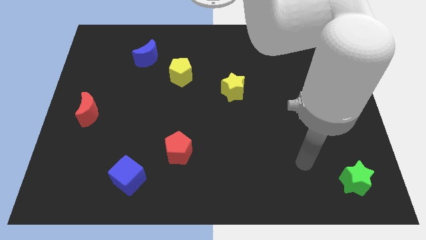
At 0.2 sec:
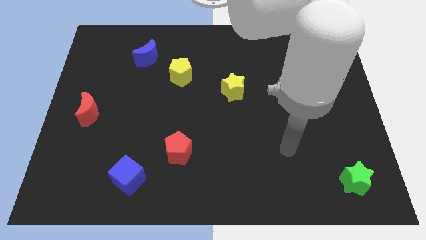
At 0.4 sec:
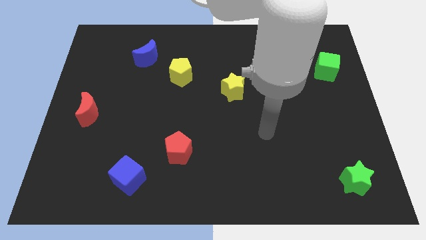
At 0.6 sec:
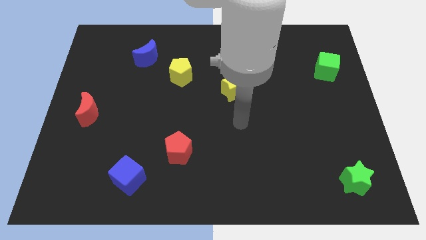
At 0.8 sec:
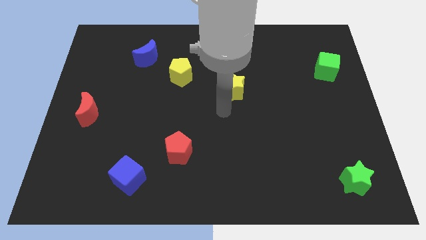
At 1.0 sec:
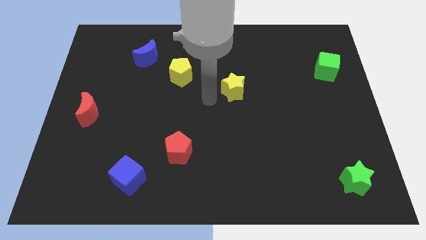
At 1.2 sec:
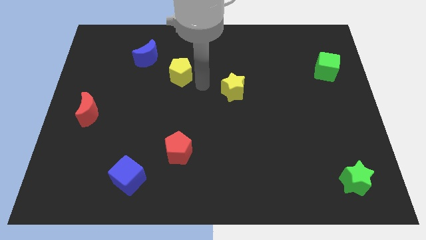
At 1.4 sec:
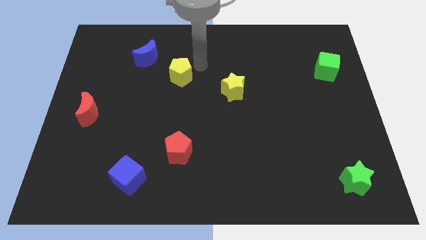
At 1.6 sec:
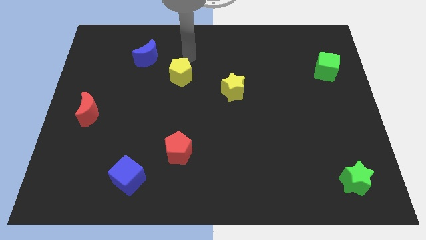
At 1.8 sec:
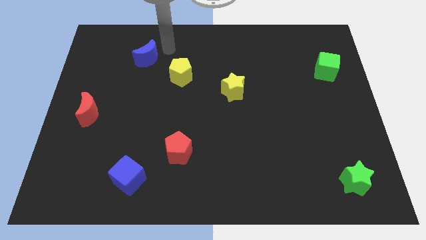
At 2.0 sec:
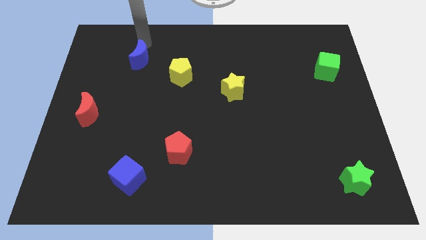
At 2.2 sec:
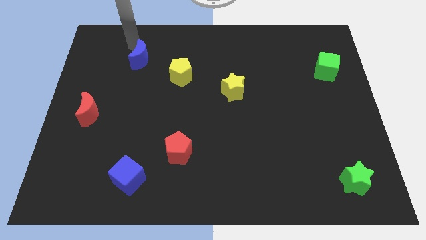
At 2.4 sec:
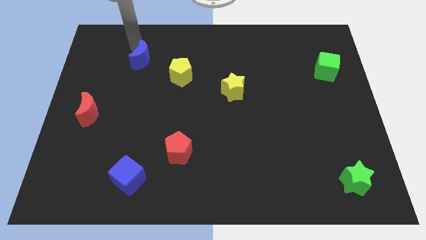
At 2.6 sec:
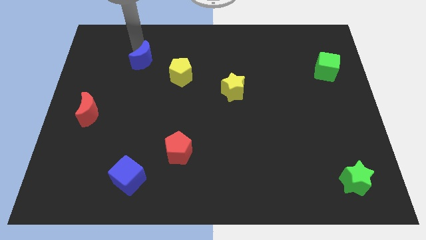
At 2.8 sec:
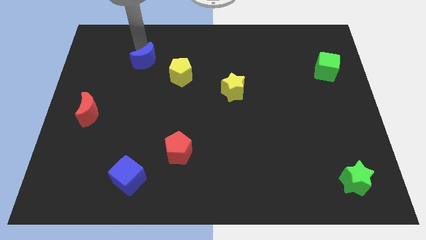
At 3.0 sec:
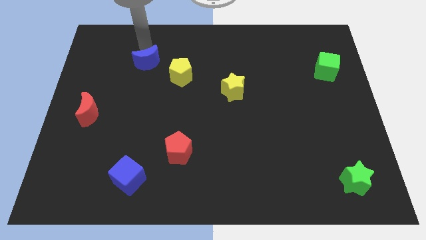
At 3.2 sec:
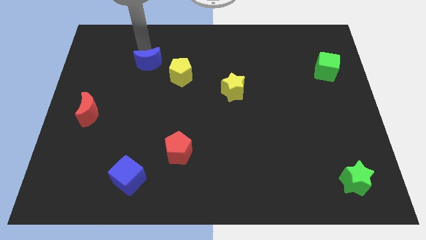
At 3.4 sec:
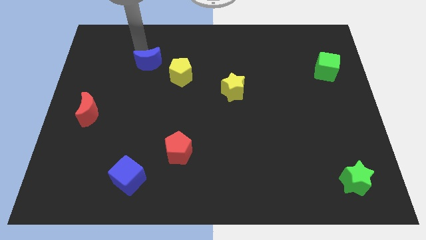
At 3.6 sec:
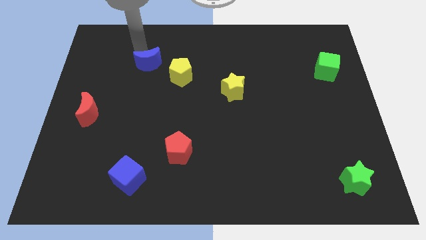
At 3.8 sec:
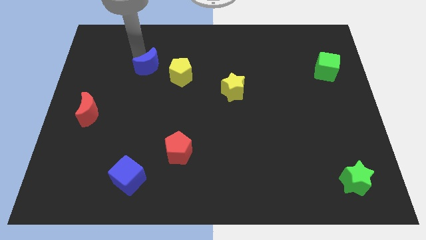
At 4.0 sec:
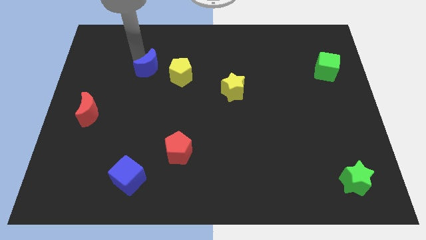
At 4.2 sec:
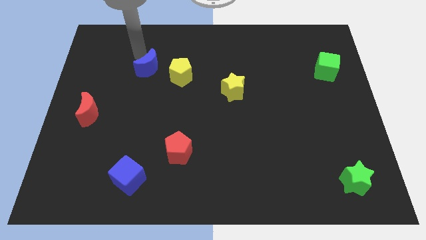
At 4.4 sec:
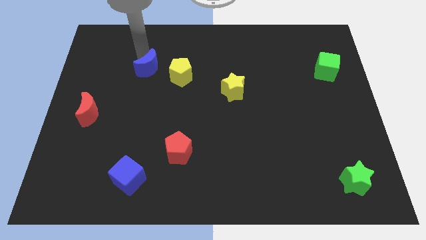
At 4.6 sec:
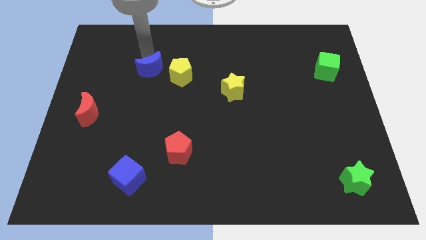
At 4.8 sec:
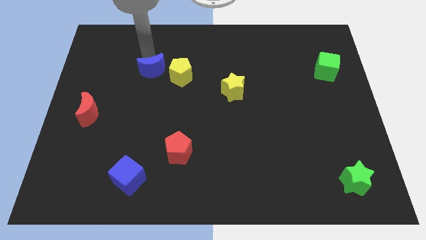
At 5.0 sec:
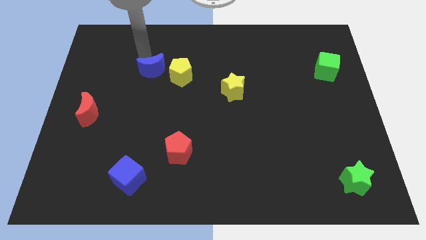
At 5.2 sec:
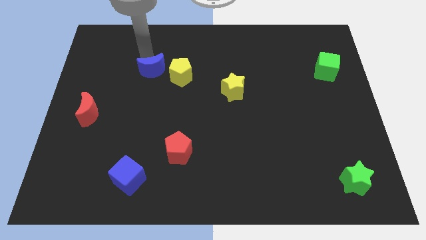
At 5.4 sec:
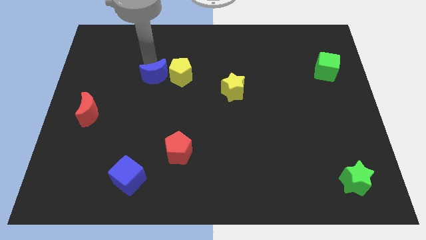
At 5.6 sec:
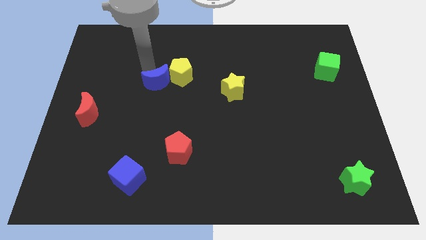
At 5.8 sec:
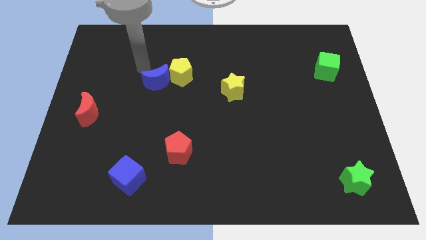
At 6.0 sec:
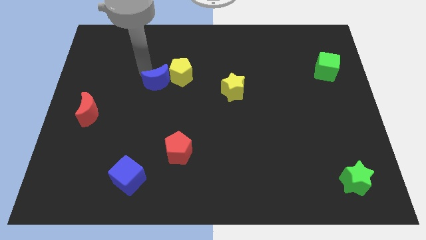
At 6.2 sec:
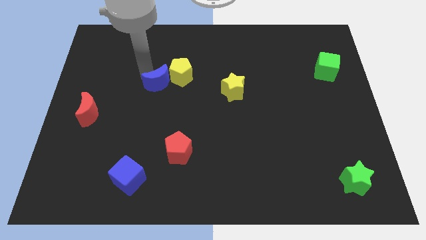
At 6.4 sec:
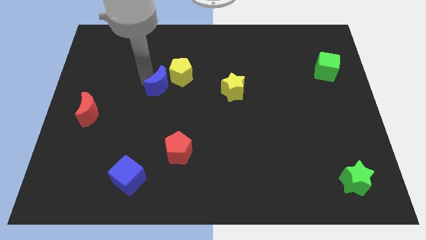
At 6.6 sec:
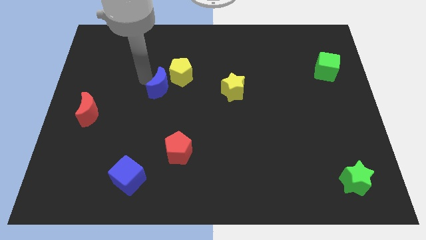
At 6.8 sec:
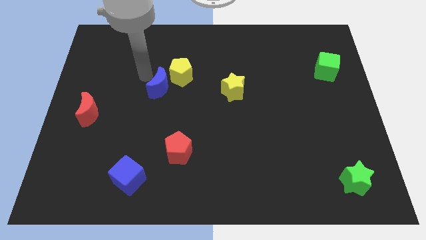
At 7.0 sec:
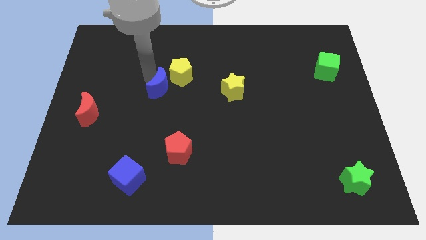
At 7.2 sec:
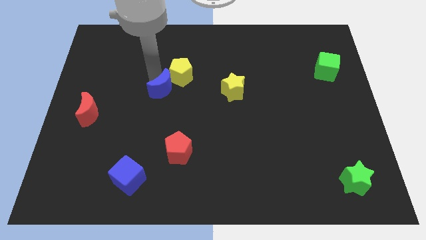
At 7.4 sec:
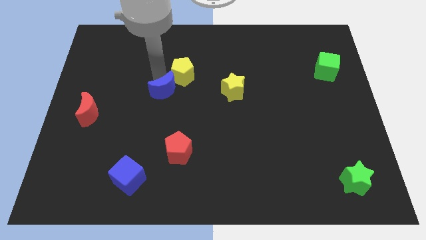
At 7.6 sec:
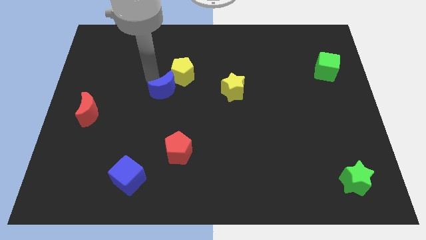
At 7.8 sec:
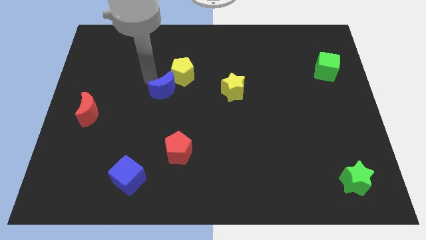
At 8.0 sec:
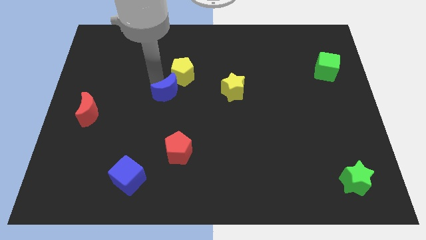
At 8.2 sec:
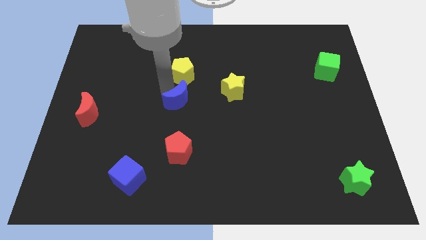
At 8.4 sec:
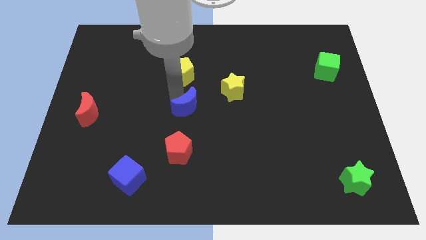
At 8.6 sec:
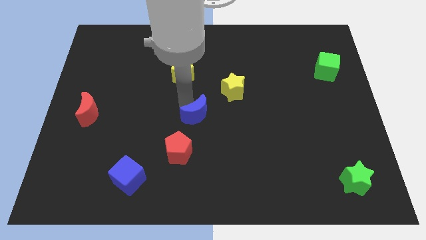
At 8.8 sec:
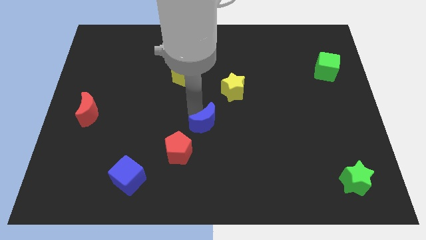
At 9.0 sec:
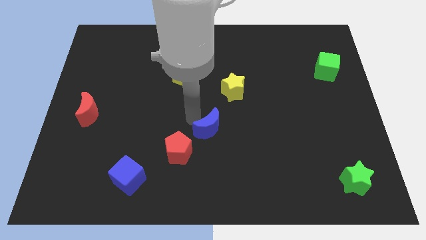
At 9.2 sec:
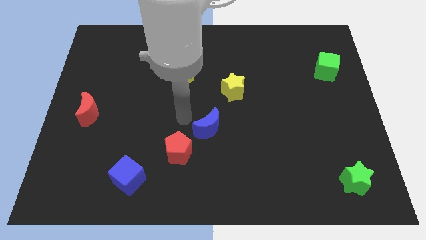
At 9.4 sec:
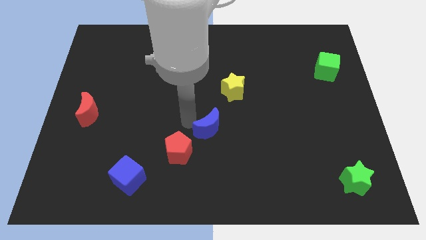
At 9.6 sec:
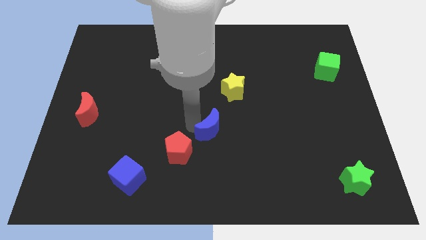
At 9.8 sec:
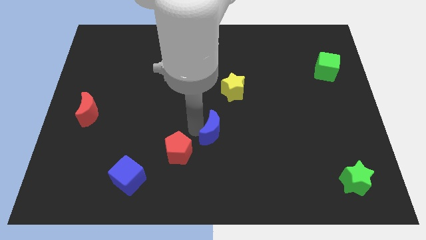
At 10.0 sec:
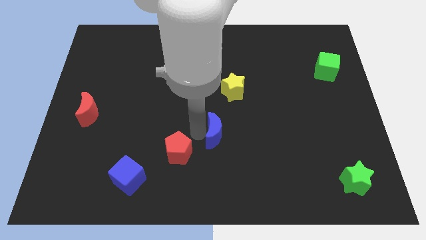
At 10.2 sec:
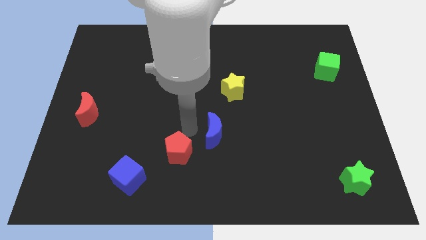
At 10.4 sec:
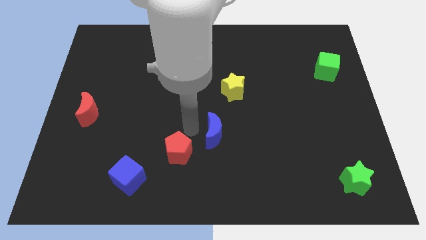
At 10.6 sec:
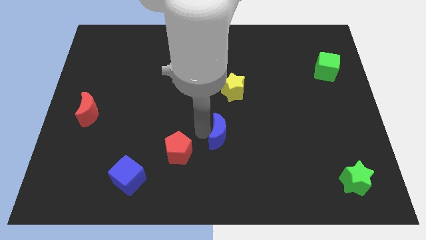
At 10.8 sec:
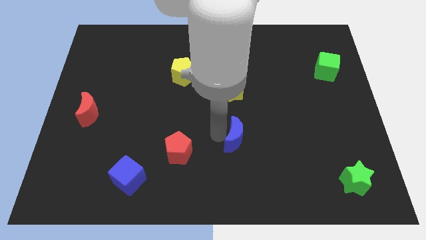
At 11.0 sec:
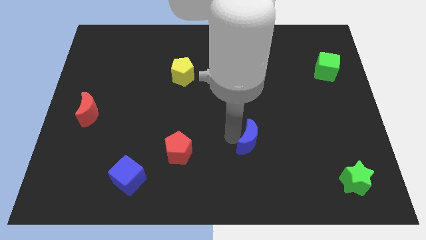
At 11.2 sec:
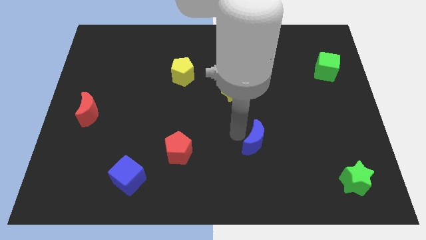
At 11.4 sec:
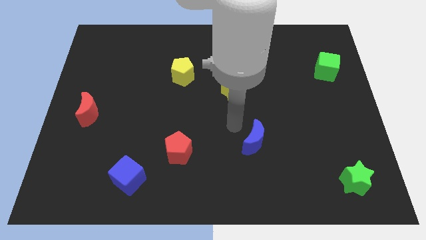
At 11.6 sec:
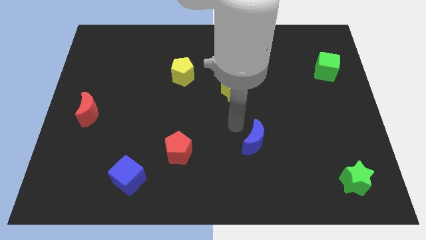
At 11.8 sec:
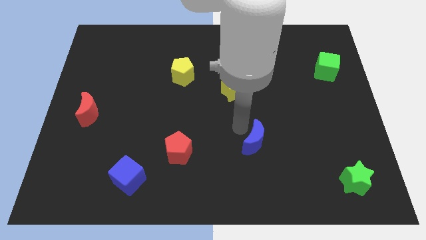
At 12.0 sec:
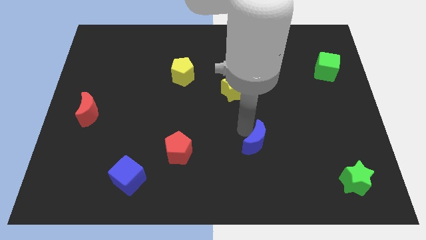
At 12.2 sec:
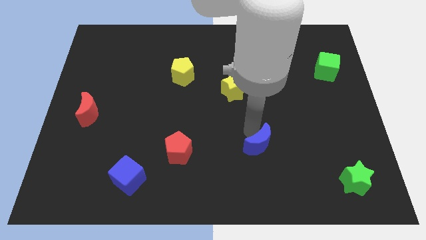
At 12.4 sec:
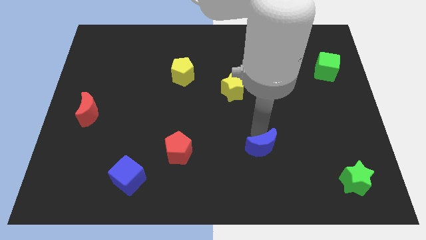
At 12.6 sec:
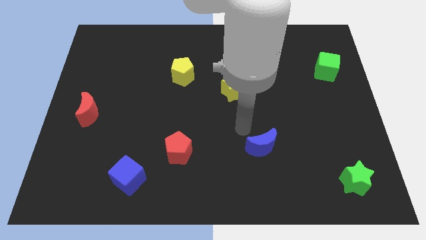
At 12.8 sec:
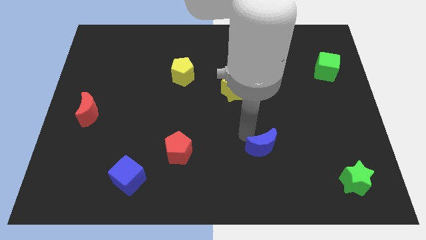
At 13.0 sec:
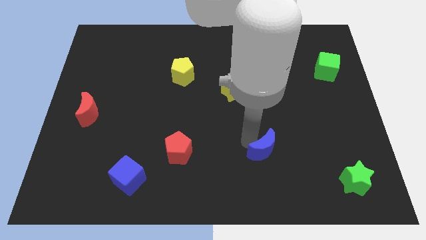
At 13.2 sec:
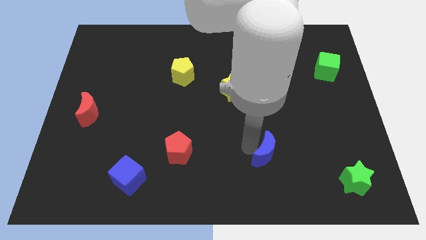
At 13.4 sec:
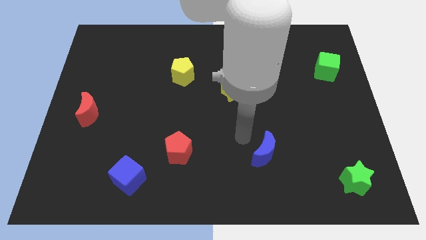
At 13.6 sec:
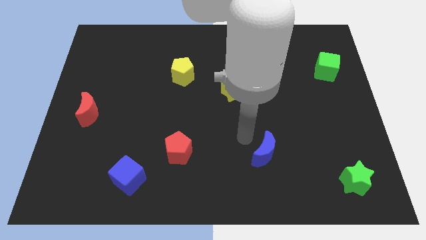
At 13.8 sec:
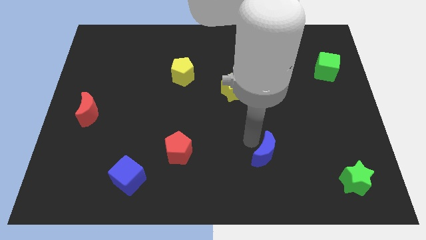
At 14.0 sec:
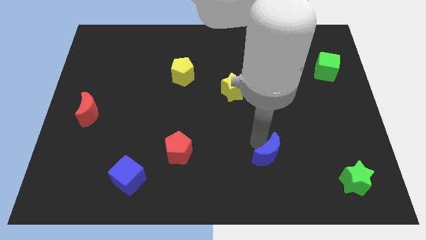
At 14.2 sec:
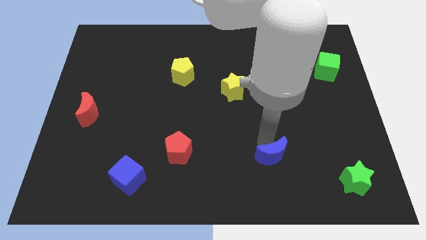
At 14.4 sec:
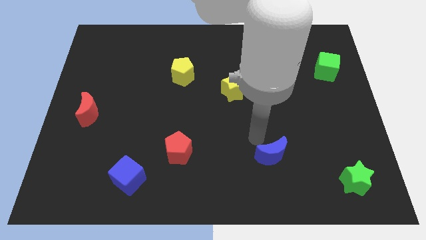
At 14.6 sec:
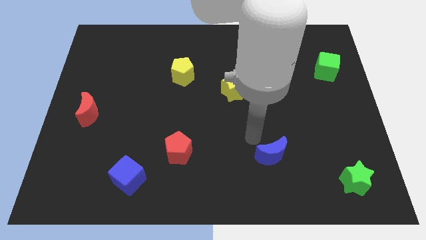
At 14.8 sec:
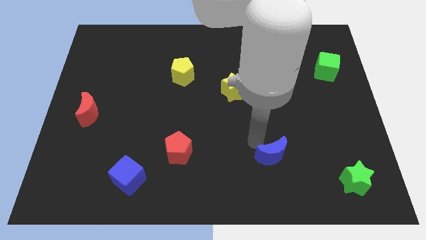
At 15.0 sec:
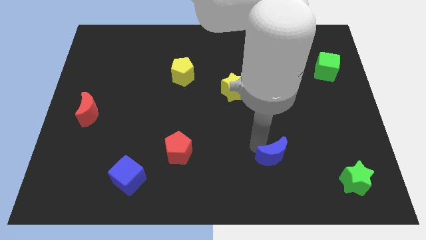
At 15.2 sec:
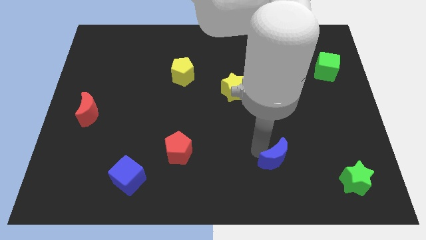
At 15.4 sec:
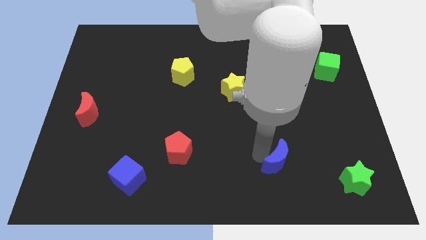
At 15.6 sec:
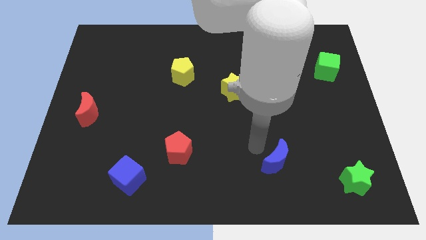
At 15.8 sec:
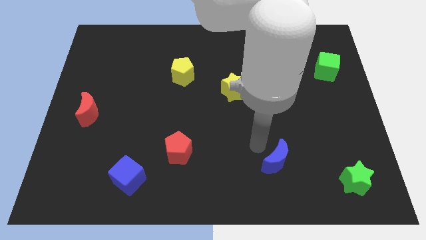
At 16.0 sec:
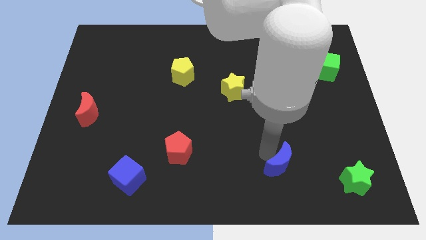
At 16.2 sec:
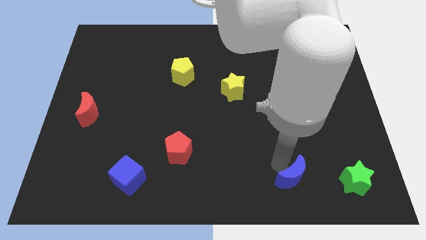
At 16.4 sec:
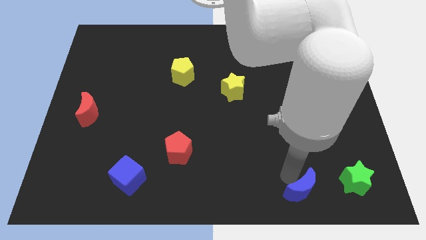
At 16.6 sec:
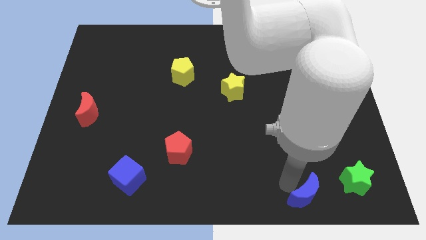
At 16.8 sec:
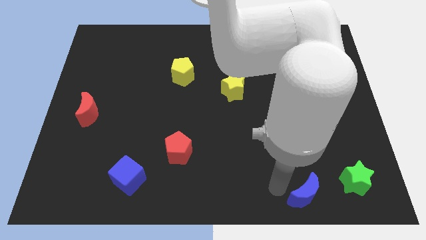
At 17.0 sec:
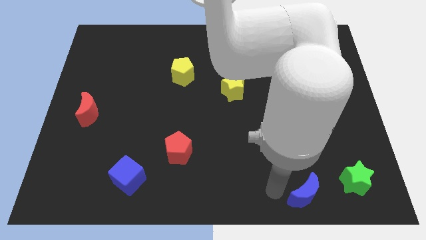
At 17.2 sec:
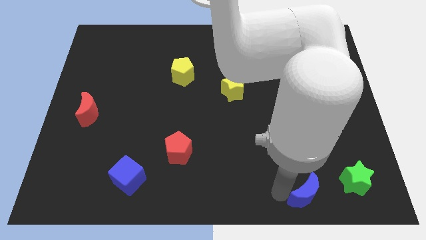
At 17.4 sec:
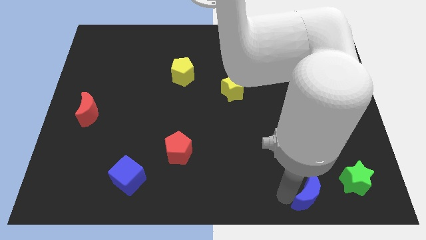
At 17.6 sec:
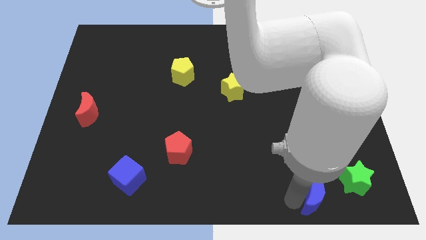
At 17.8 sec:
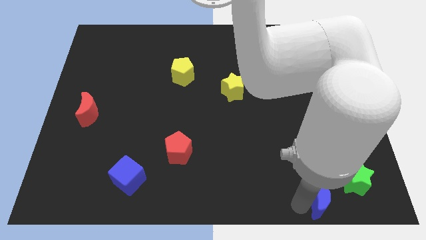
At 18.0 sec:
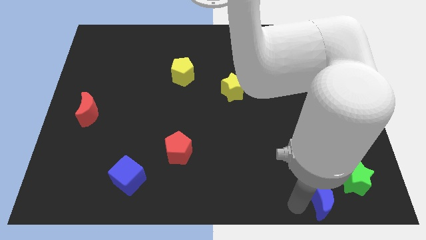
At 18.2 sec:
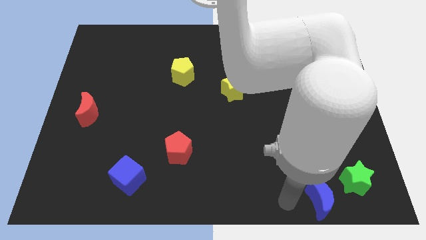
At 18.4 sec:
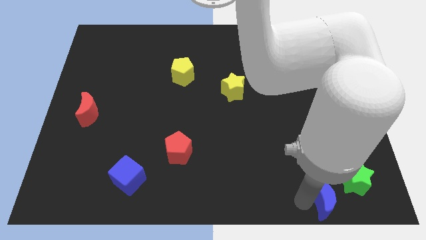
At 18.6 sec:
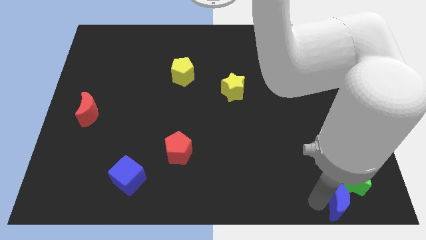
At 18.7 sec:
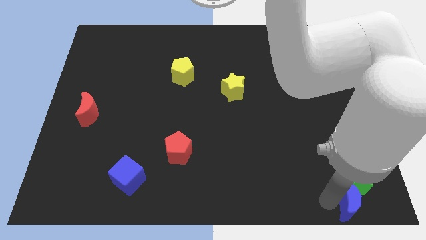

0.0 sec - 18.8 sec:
push the blue moon to the lower right corner
